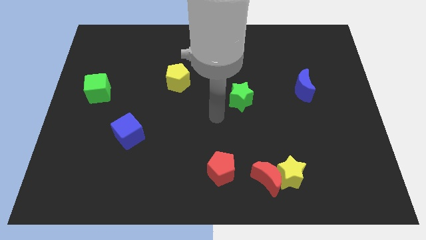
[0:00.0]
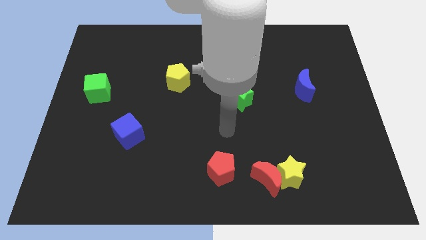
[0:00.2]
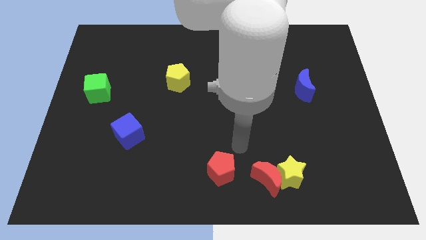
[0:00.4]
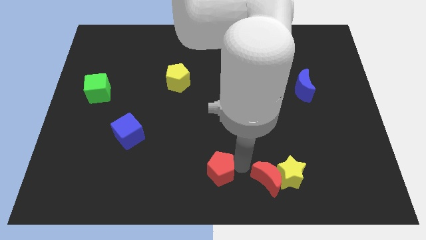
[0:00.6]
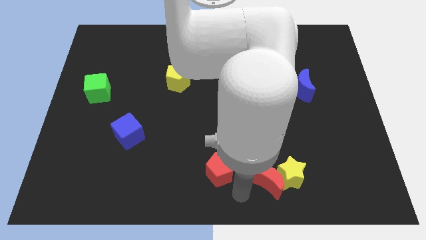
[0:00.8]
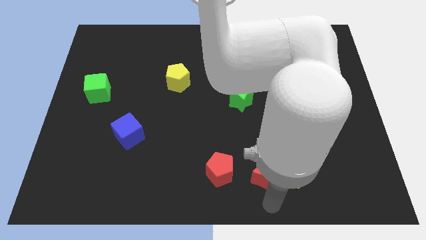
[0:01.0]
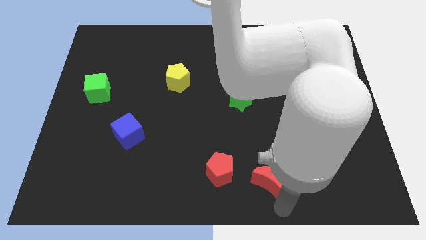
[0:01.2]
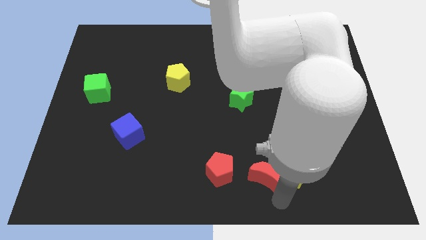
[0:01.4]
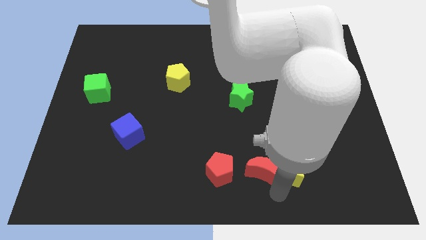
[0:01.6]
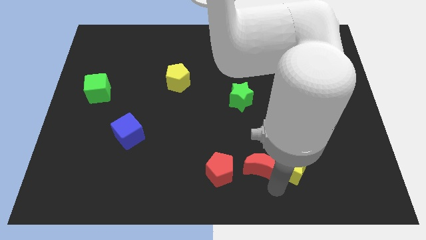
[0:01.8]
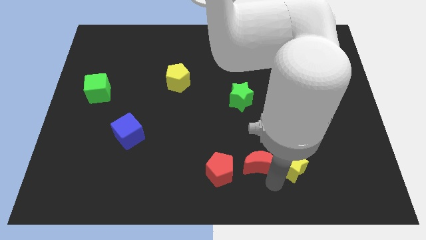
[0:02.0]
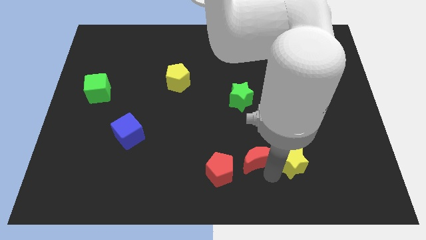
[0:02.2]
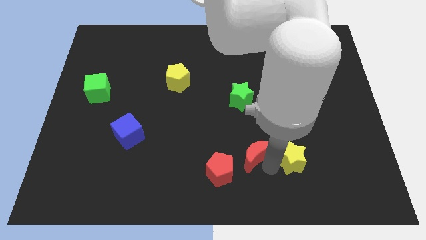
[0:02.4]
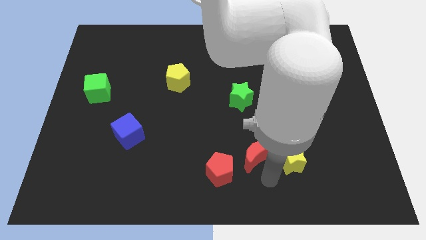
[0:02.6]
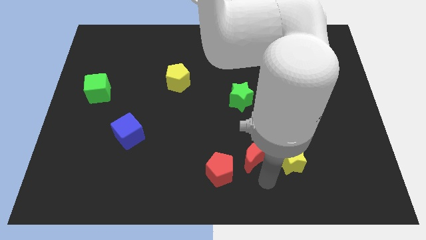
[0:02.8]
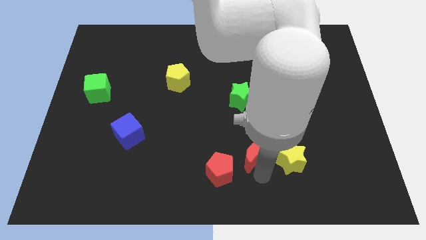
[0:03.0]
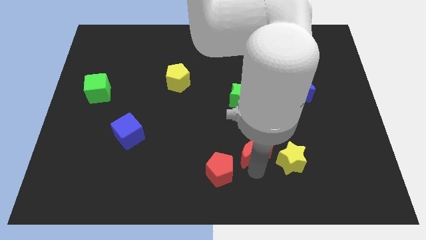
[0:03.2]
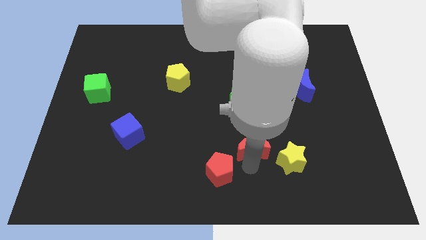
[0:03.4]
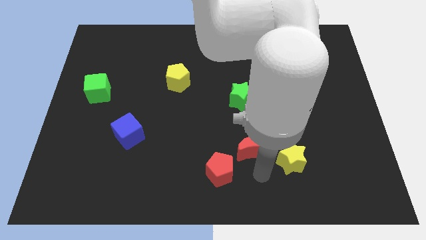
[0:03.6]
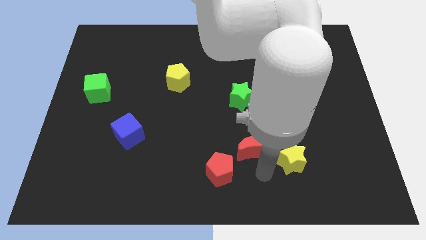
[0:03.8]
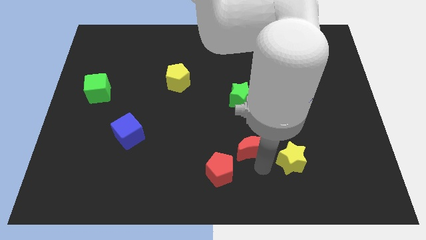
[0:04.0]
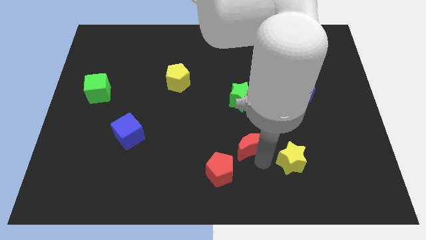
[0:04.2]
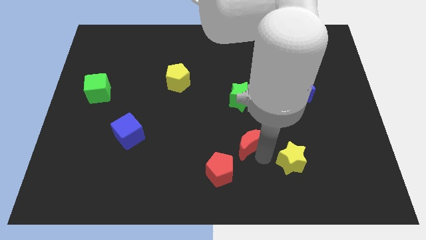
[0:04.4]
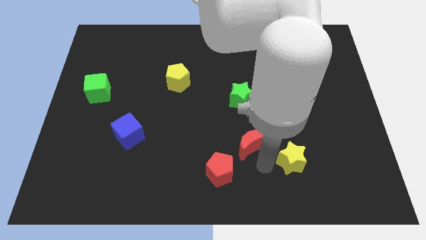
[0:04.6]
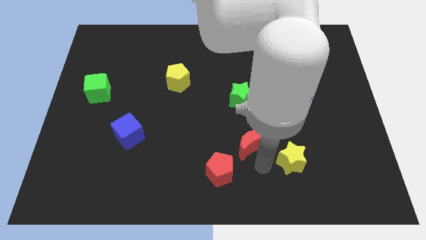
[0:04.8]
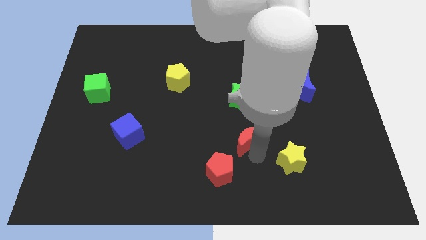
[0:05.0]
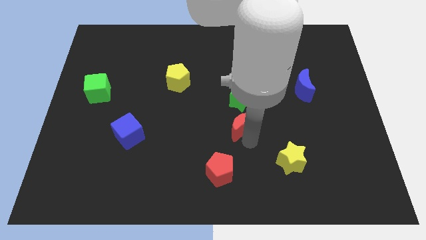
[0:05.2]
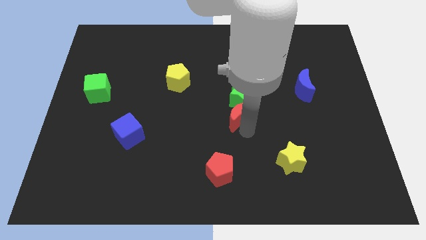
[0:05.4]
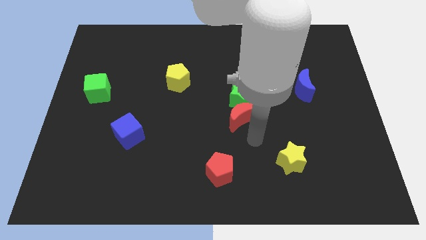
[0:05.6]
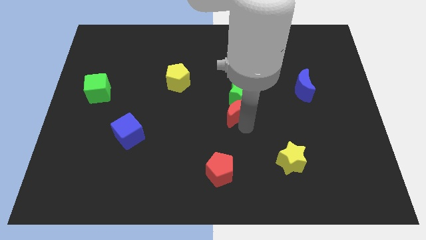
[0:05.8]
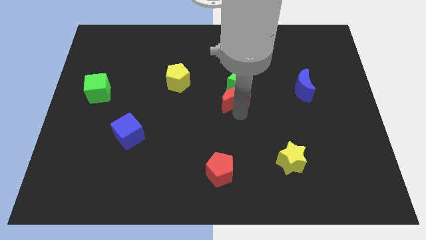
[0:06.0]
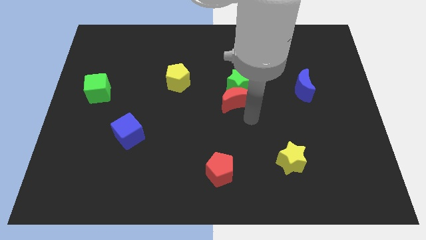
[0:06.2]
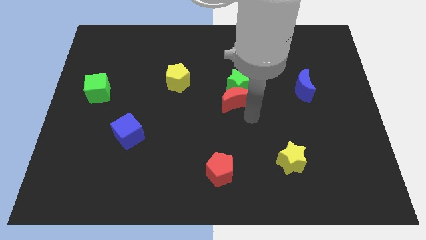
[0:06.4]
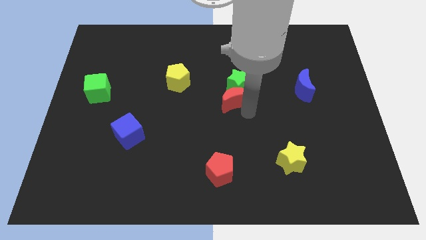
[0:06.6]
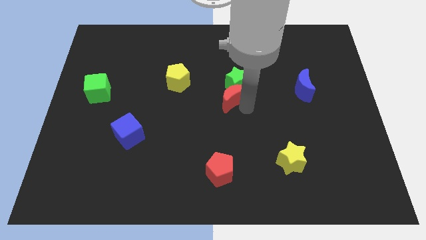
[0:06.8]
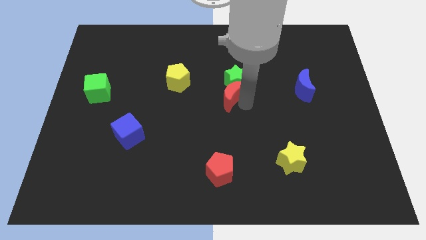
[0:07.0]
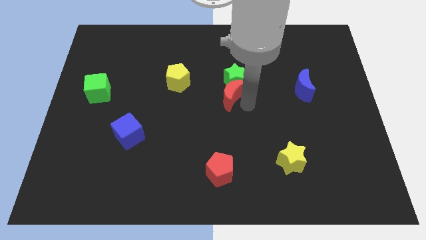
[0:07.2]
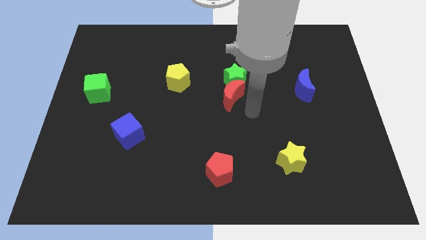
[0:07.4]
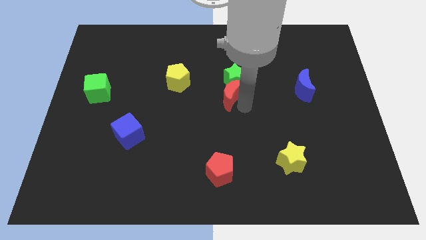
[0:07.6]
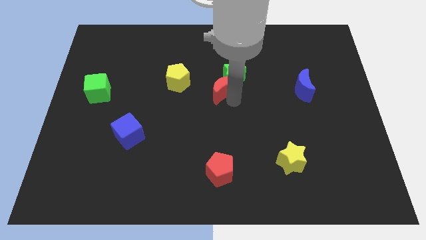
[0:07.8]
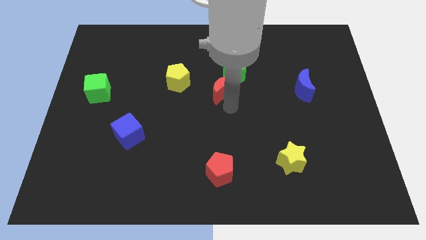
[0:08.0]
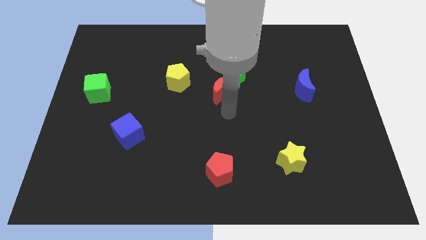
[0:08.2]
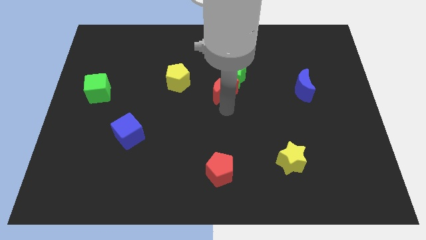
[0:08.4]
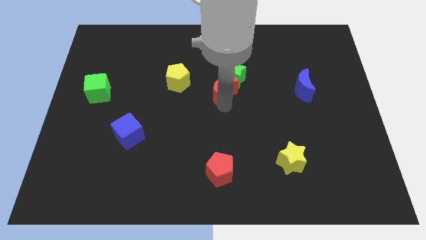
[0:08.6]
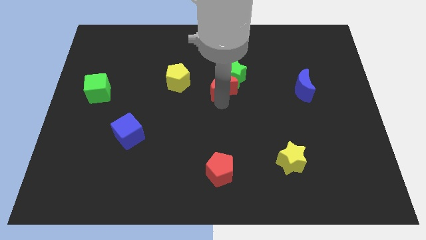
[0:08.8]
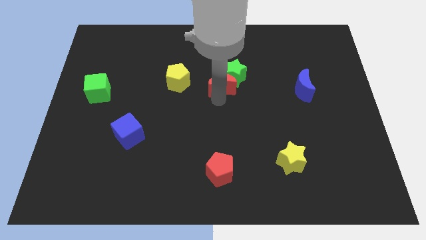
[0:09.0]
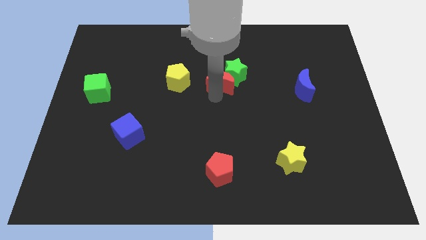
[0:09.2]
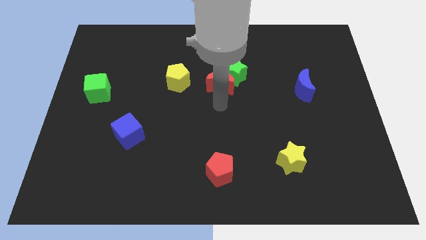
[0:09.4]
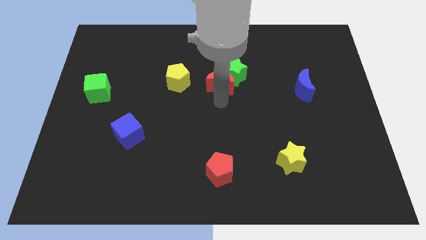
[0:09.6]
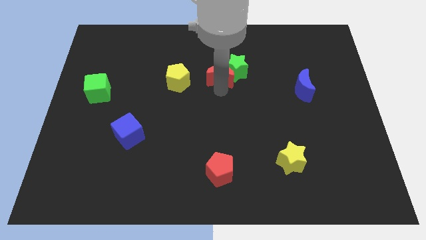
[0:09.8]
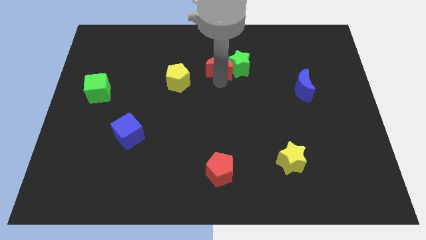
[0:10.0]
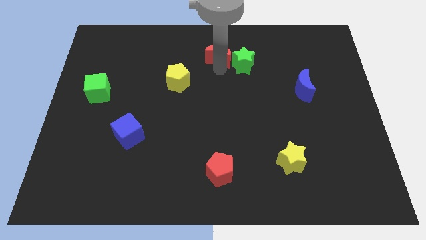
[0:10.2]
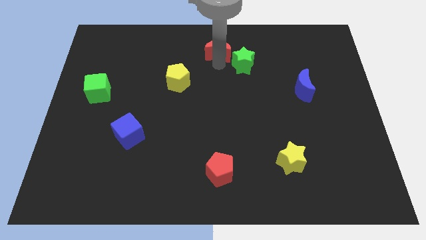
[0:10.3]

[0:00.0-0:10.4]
move the red moon to the top side

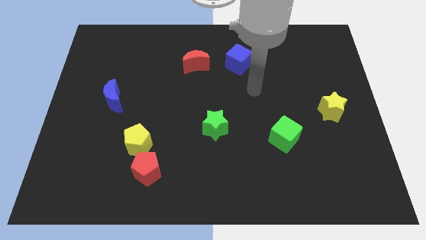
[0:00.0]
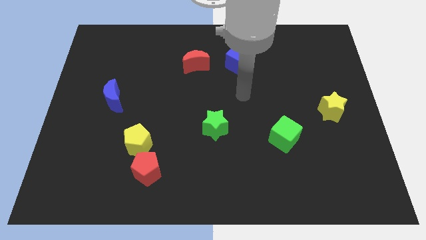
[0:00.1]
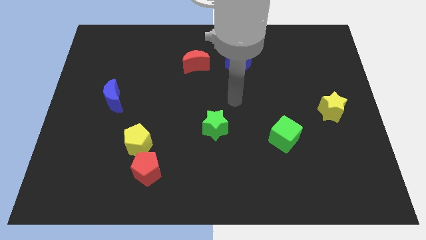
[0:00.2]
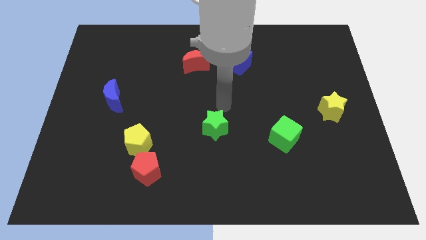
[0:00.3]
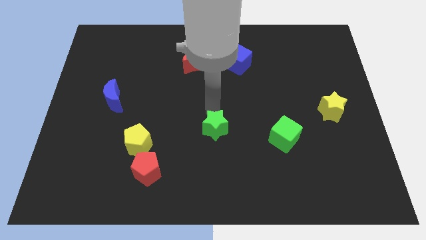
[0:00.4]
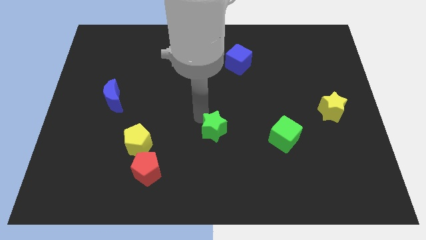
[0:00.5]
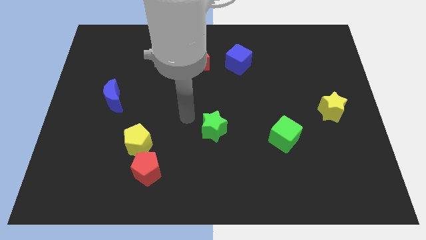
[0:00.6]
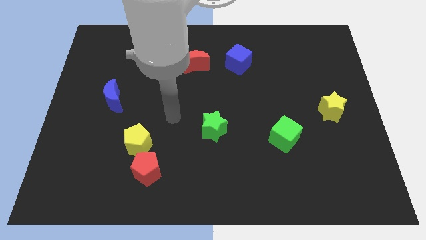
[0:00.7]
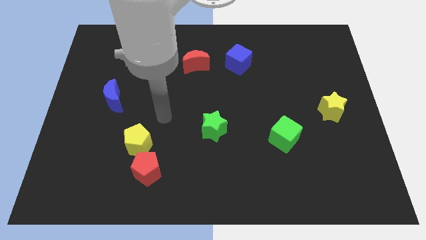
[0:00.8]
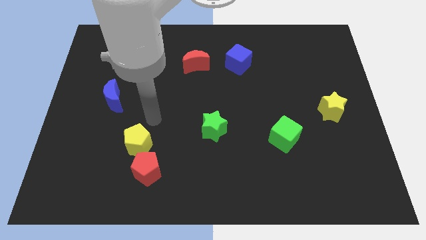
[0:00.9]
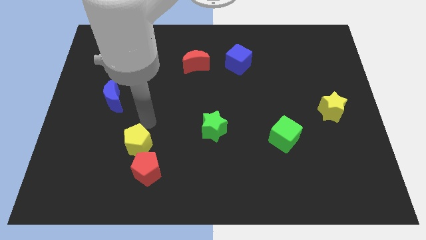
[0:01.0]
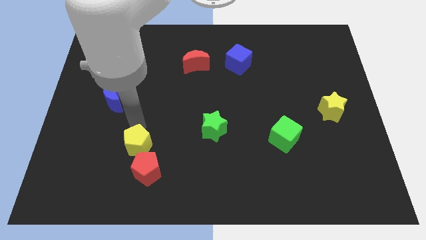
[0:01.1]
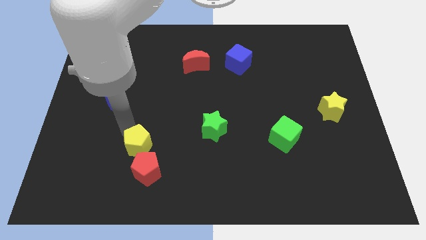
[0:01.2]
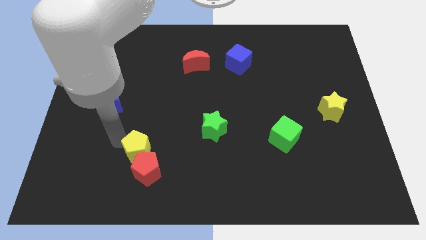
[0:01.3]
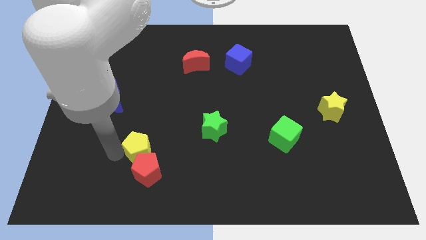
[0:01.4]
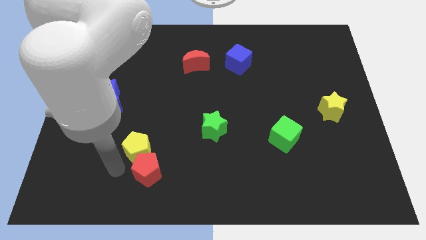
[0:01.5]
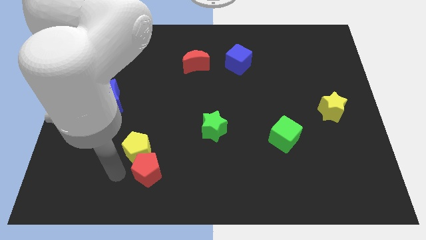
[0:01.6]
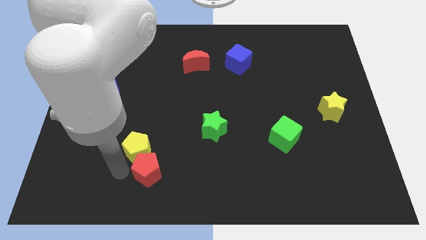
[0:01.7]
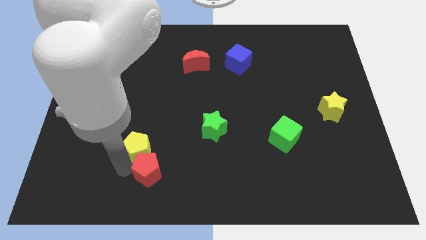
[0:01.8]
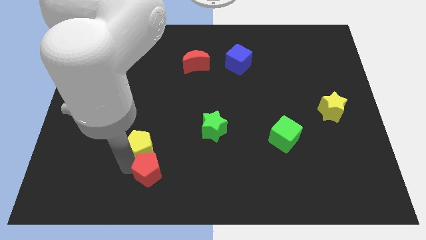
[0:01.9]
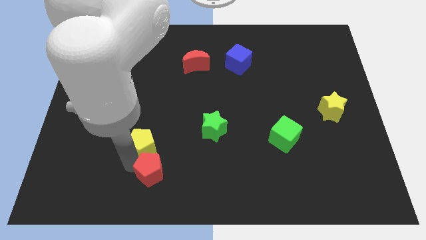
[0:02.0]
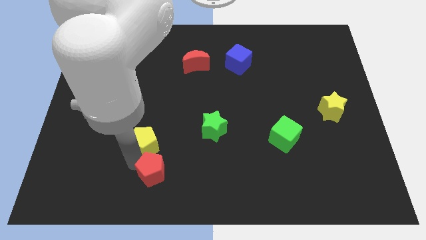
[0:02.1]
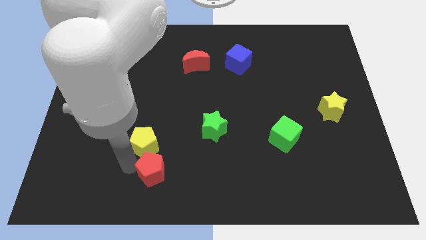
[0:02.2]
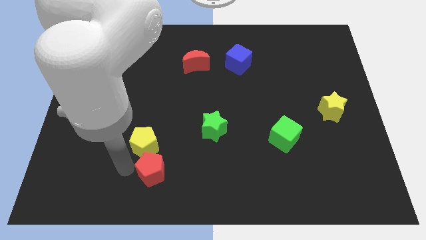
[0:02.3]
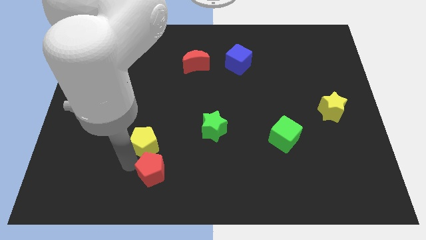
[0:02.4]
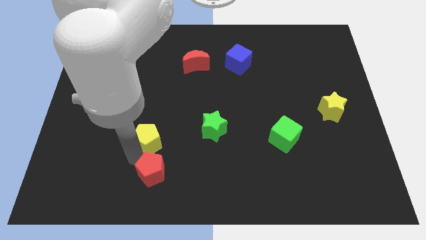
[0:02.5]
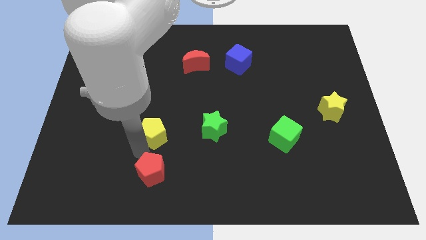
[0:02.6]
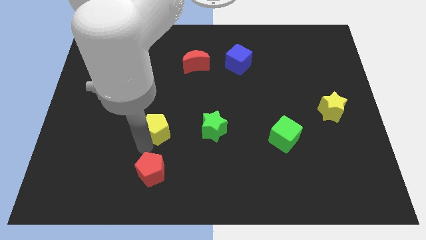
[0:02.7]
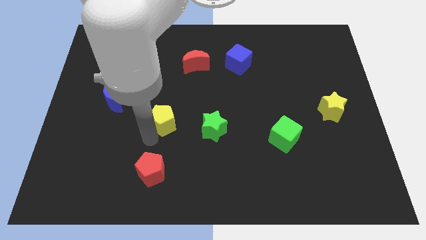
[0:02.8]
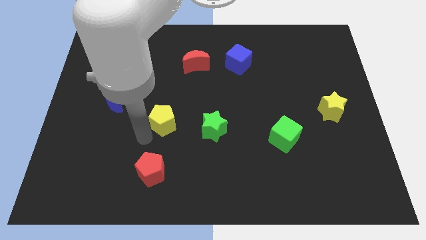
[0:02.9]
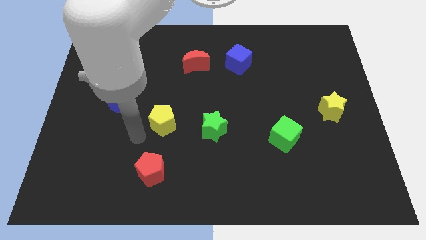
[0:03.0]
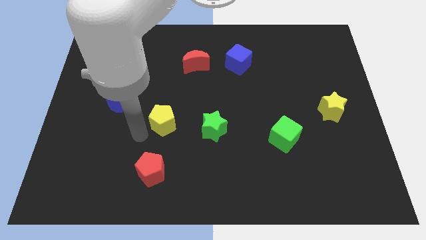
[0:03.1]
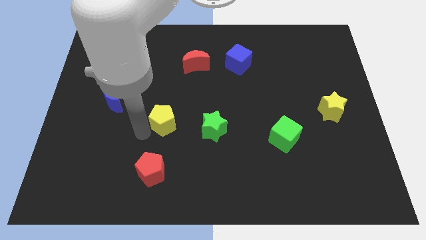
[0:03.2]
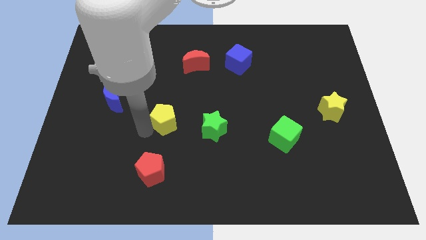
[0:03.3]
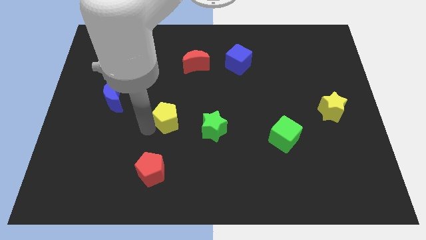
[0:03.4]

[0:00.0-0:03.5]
move the yellow pentagon to the center
